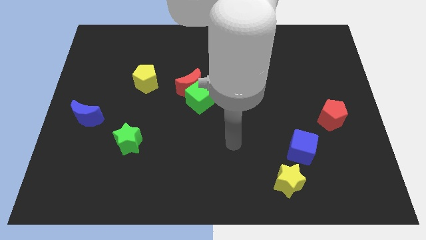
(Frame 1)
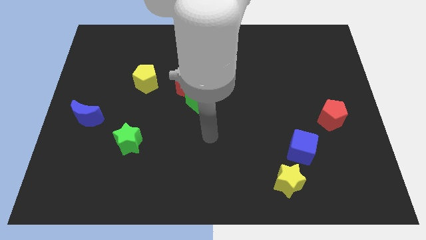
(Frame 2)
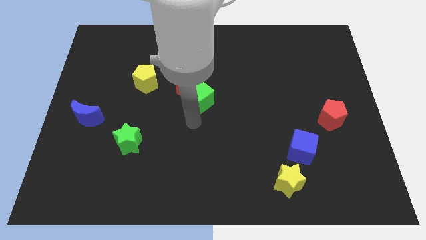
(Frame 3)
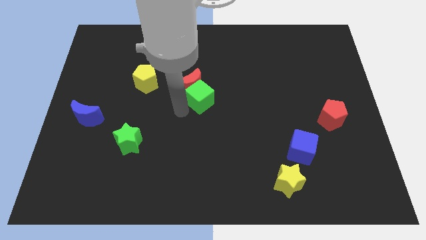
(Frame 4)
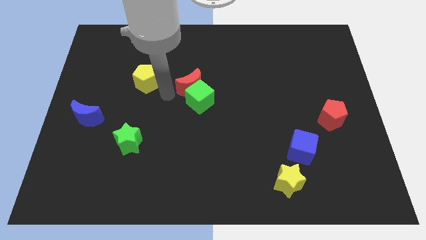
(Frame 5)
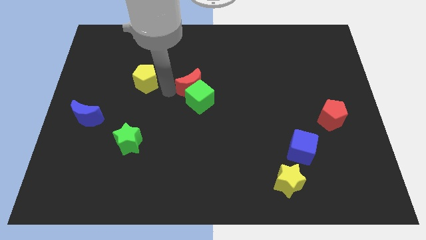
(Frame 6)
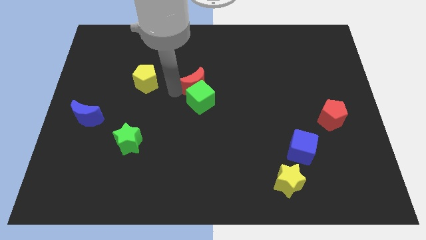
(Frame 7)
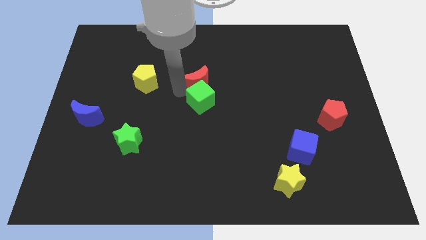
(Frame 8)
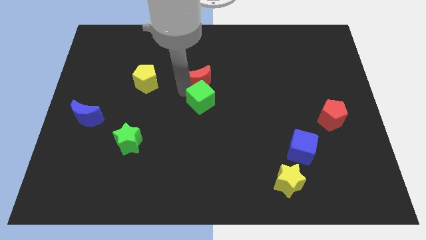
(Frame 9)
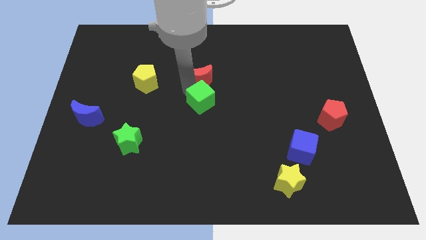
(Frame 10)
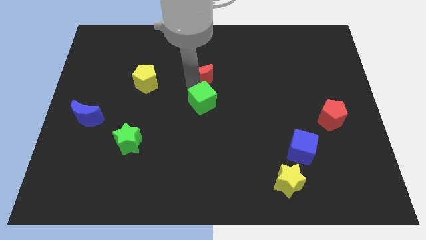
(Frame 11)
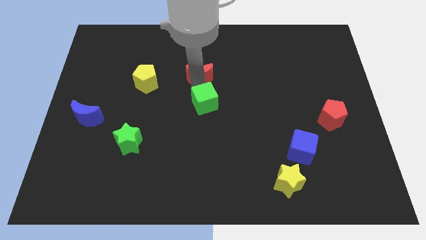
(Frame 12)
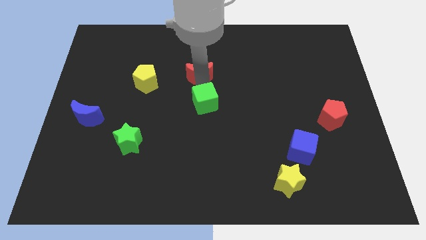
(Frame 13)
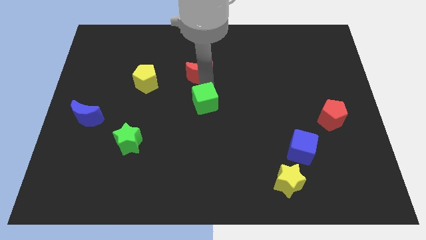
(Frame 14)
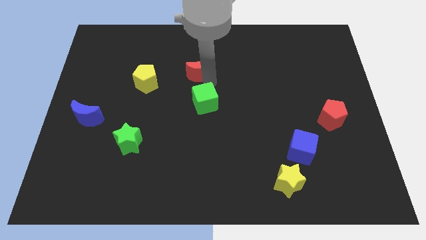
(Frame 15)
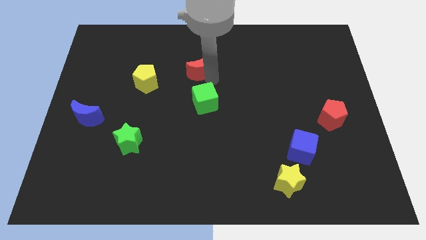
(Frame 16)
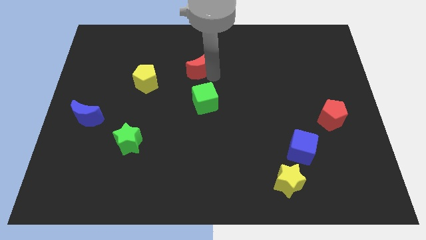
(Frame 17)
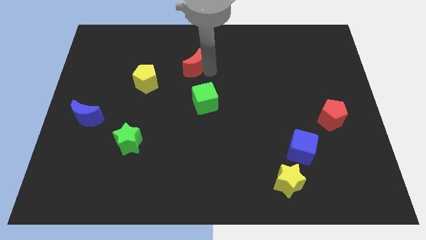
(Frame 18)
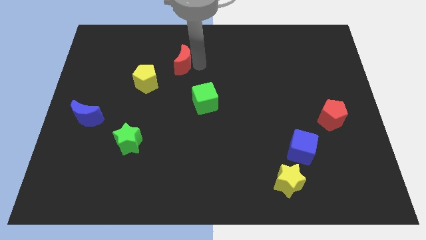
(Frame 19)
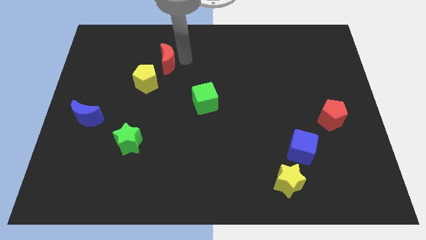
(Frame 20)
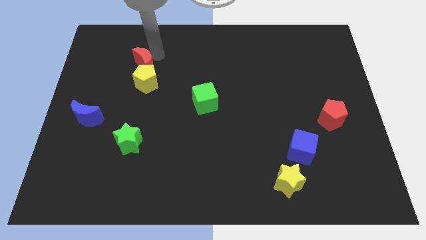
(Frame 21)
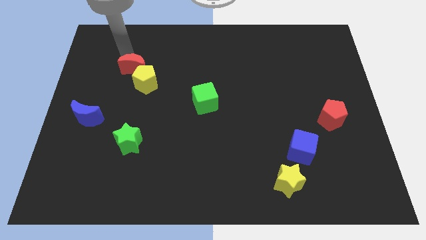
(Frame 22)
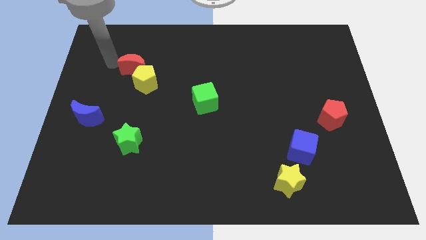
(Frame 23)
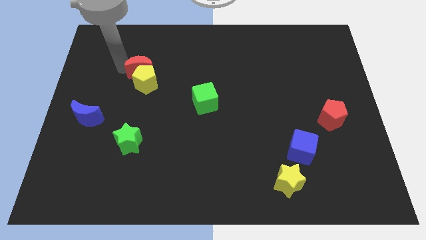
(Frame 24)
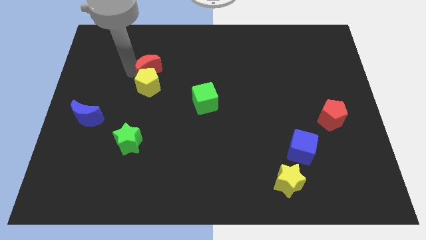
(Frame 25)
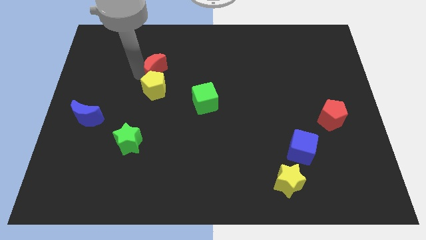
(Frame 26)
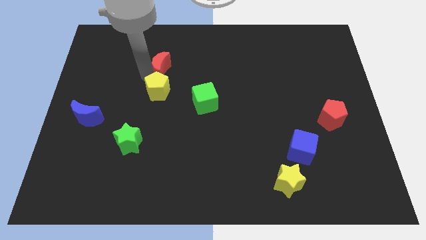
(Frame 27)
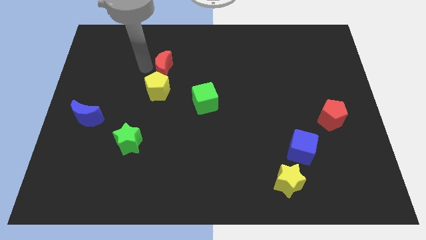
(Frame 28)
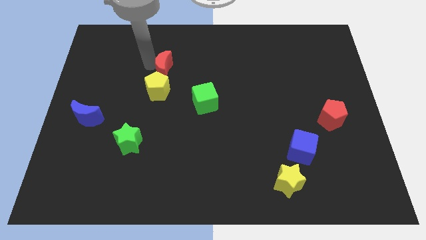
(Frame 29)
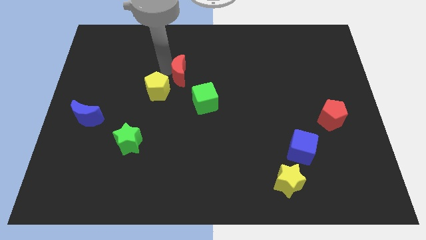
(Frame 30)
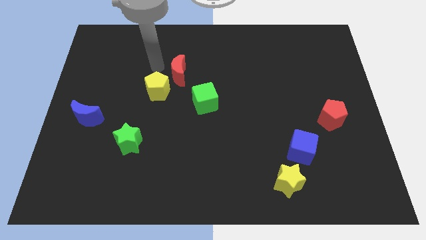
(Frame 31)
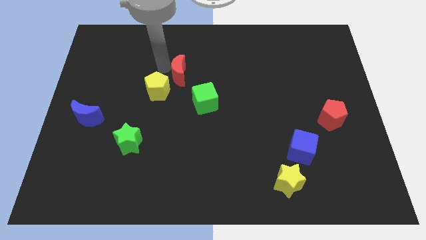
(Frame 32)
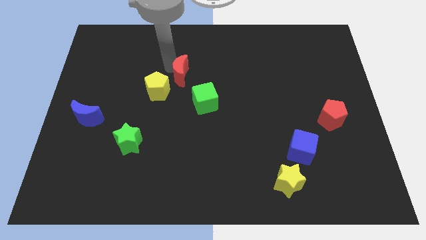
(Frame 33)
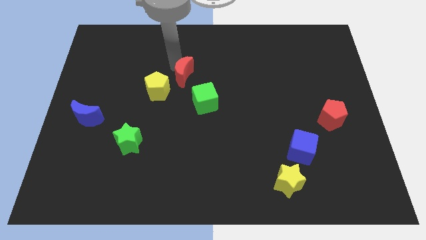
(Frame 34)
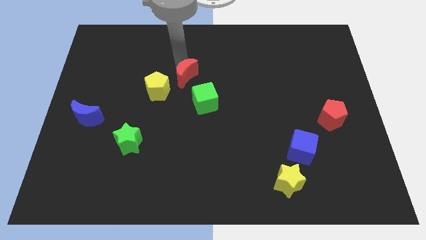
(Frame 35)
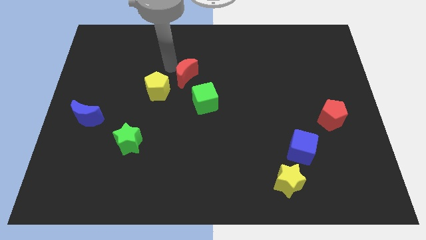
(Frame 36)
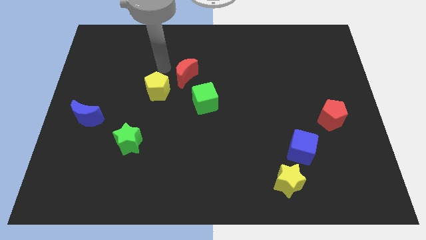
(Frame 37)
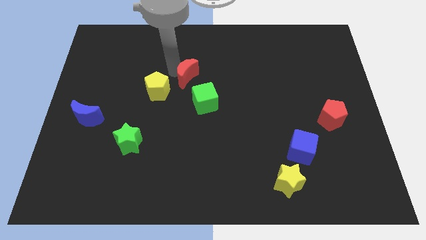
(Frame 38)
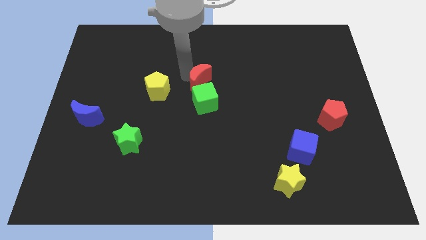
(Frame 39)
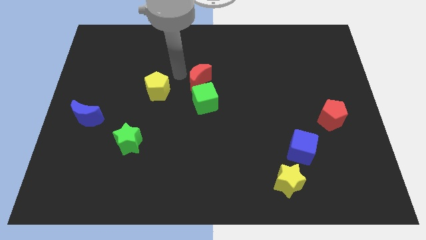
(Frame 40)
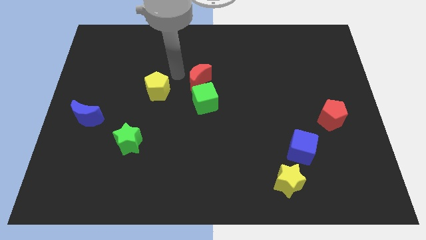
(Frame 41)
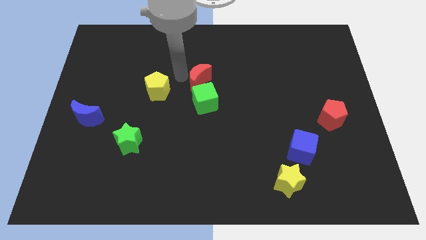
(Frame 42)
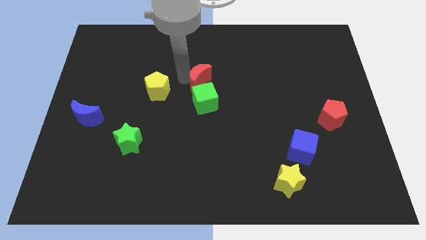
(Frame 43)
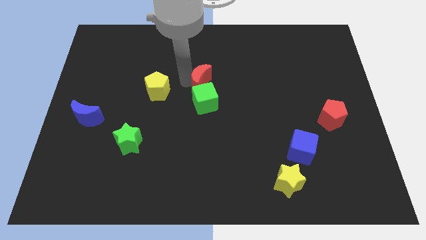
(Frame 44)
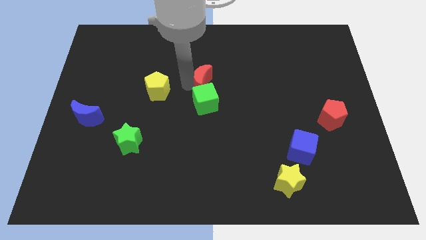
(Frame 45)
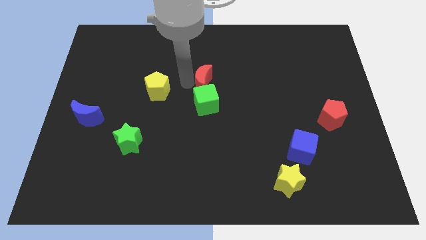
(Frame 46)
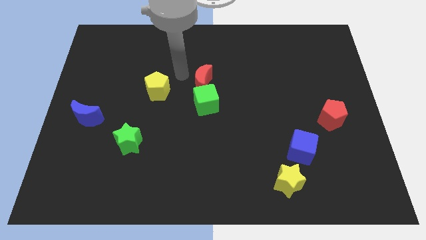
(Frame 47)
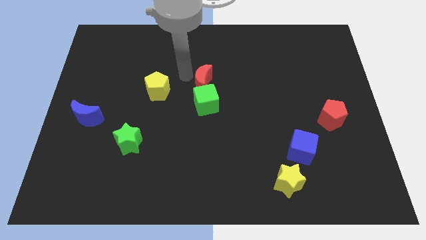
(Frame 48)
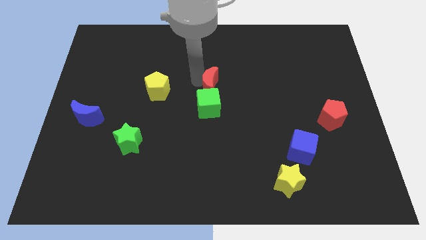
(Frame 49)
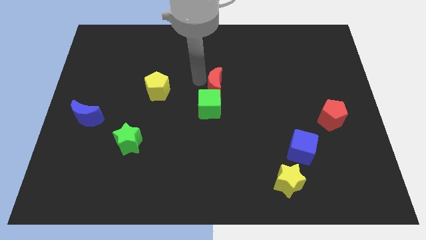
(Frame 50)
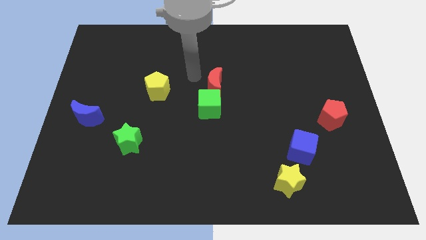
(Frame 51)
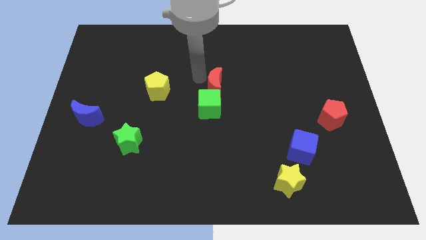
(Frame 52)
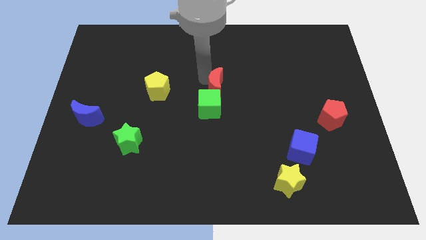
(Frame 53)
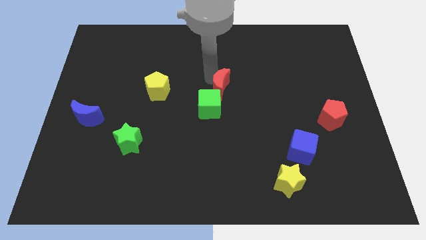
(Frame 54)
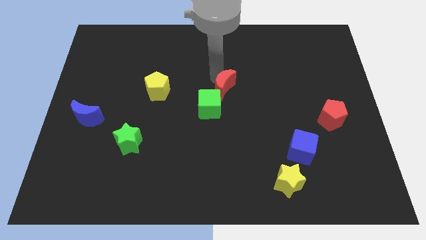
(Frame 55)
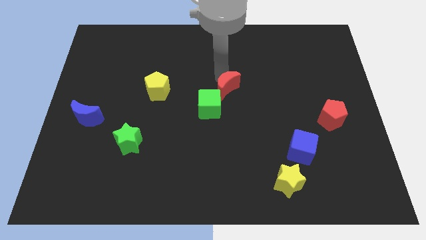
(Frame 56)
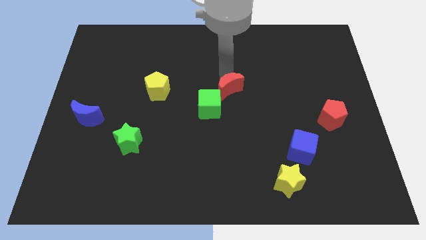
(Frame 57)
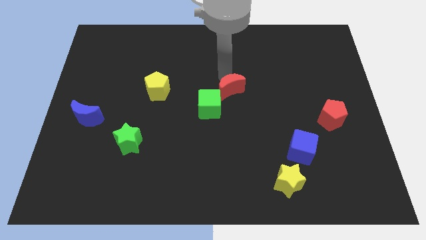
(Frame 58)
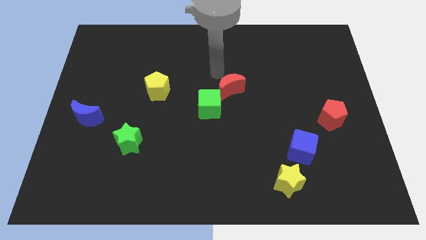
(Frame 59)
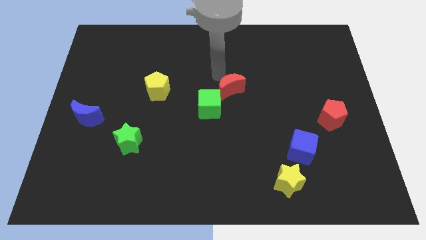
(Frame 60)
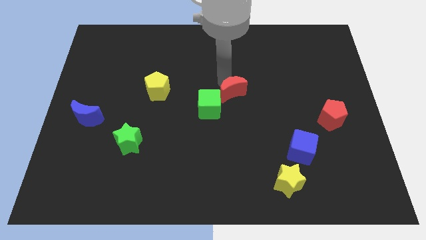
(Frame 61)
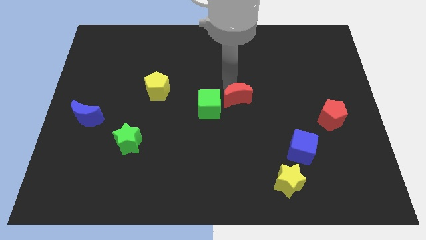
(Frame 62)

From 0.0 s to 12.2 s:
slightly move the red moon downwards and then to the right

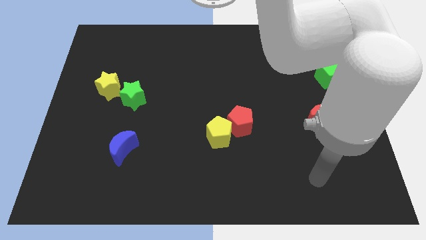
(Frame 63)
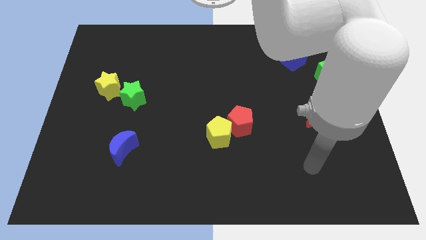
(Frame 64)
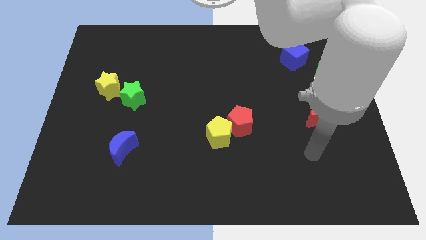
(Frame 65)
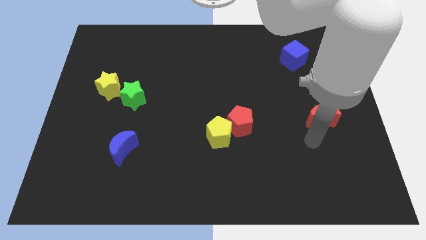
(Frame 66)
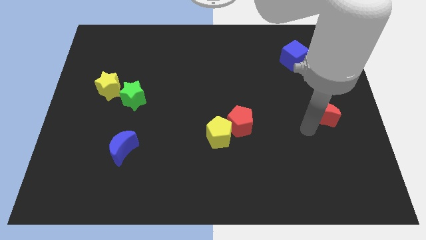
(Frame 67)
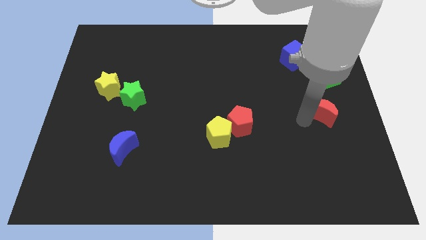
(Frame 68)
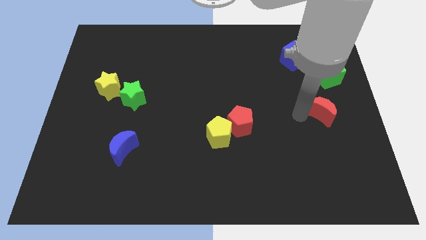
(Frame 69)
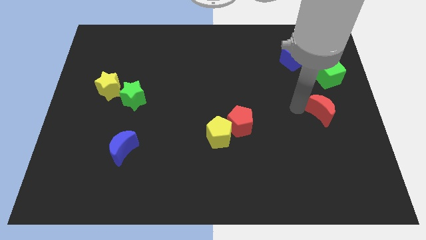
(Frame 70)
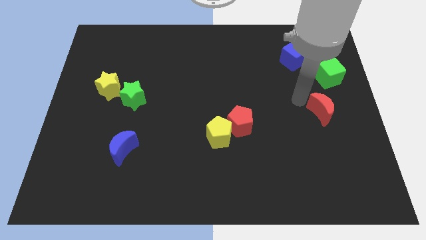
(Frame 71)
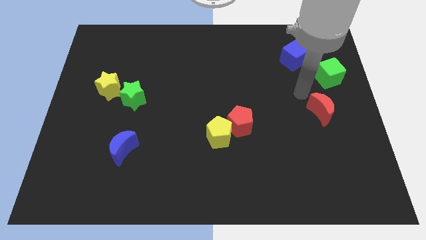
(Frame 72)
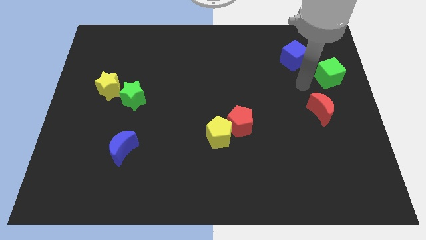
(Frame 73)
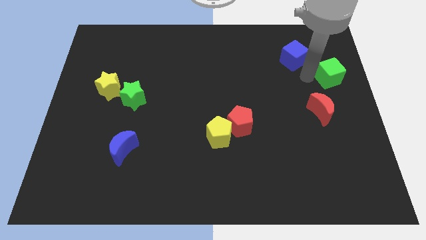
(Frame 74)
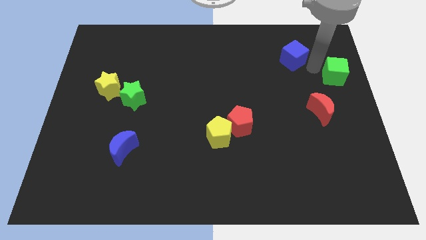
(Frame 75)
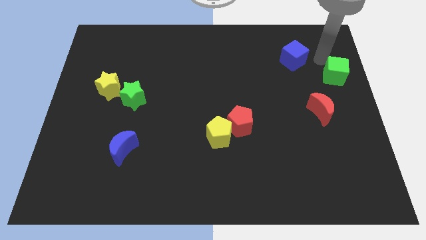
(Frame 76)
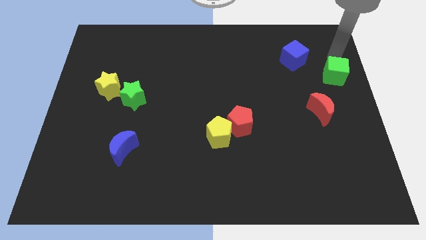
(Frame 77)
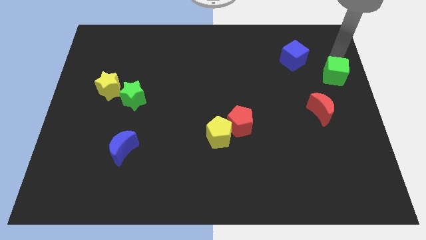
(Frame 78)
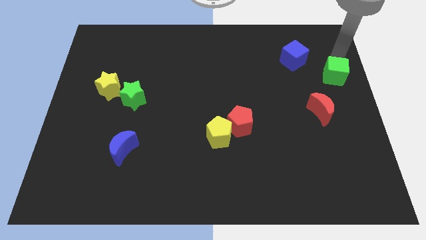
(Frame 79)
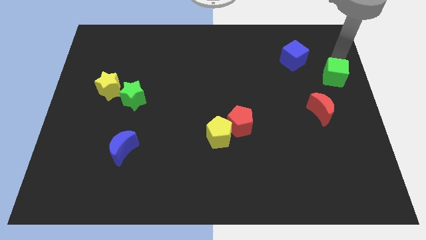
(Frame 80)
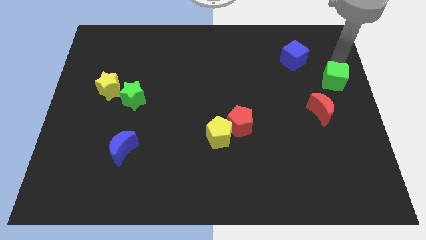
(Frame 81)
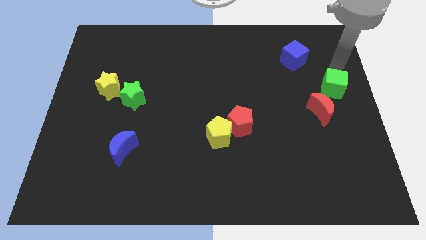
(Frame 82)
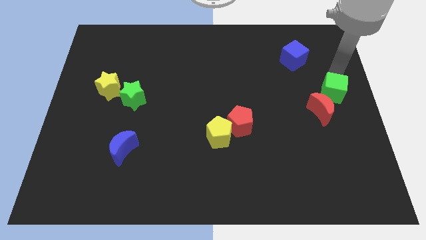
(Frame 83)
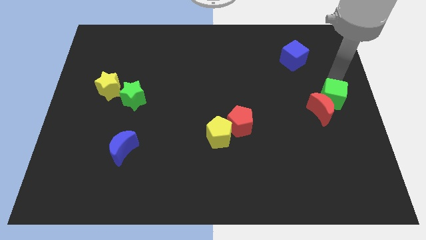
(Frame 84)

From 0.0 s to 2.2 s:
slightly move the green cube down
